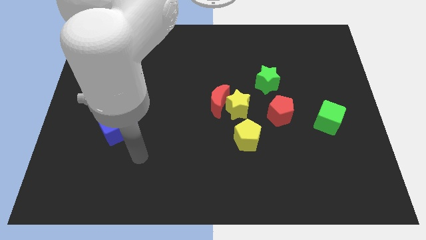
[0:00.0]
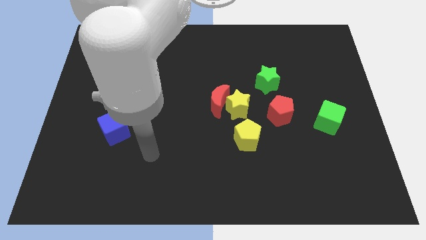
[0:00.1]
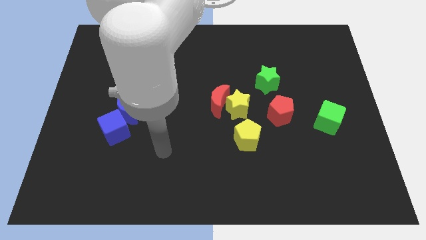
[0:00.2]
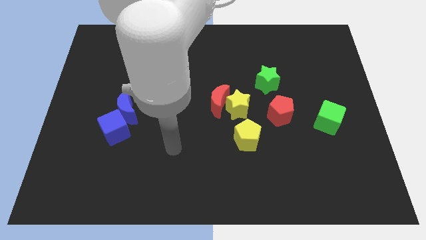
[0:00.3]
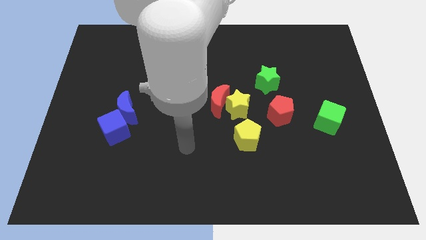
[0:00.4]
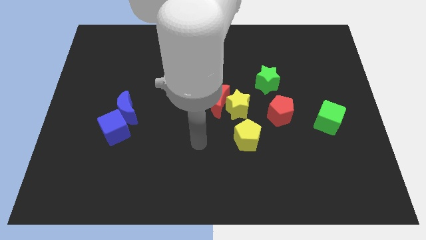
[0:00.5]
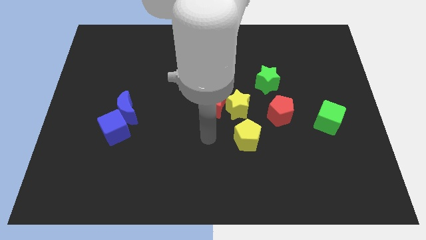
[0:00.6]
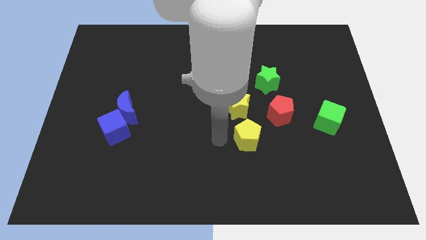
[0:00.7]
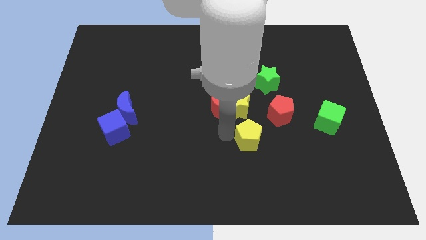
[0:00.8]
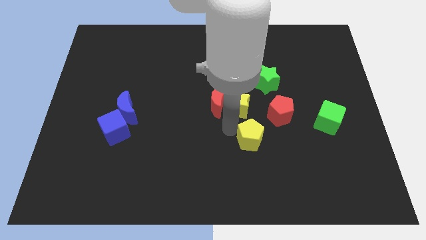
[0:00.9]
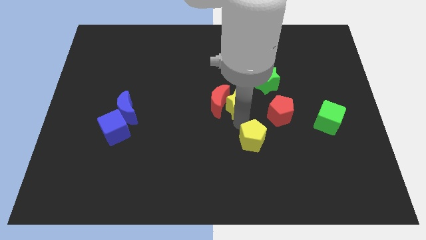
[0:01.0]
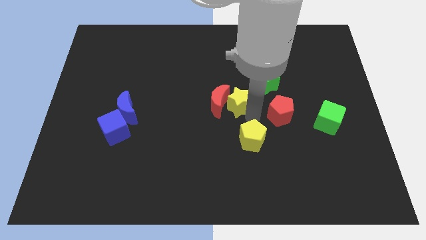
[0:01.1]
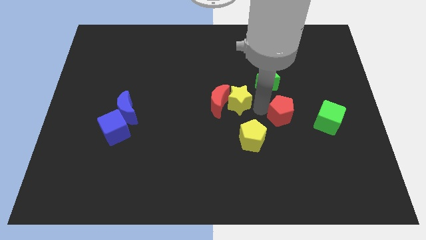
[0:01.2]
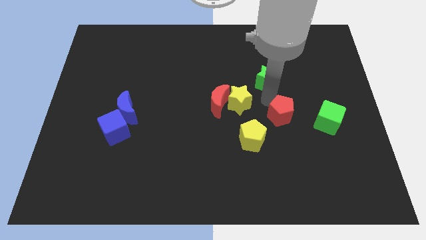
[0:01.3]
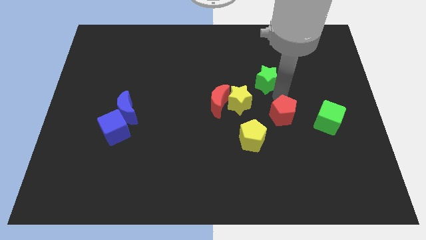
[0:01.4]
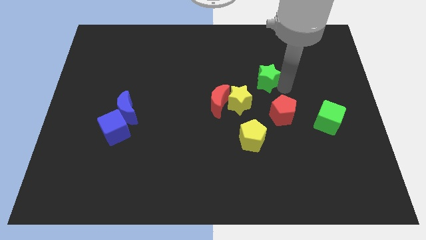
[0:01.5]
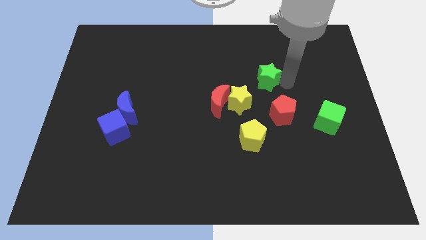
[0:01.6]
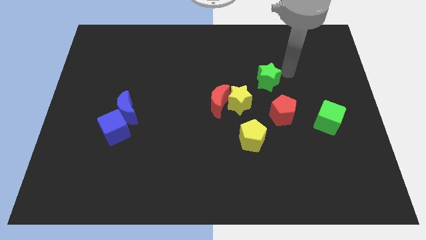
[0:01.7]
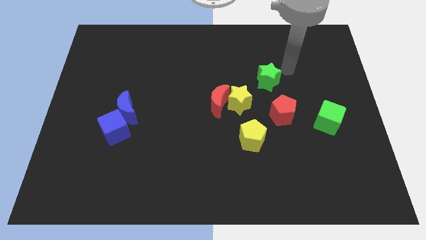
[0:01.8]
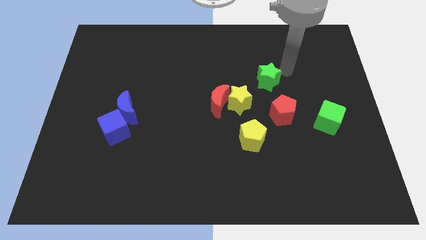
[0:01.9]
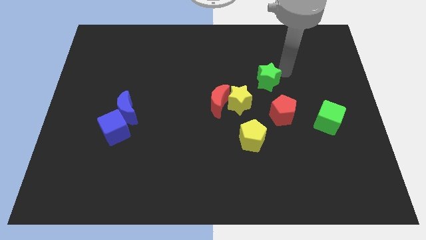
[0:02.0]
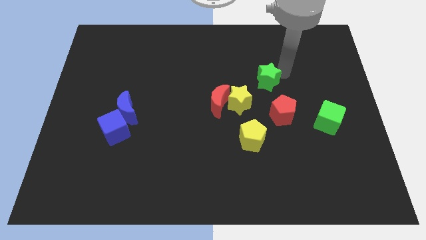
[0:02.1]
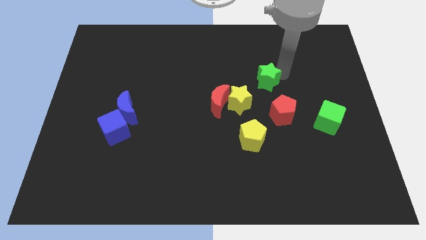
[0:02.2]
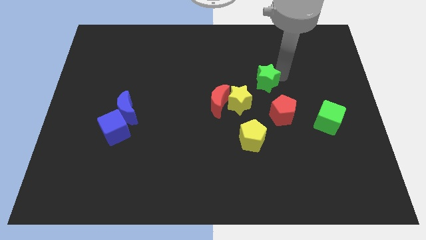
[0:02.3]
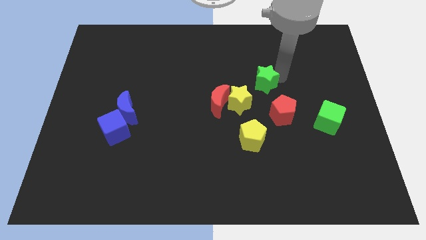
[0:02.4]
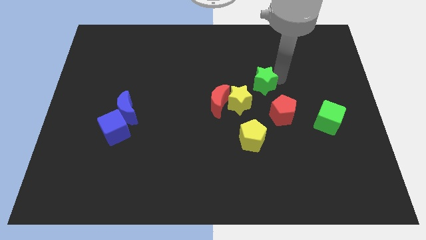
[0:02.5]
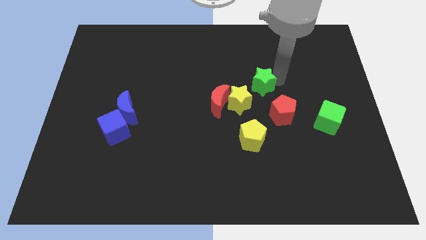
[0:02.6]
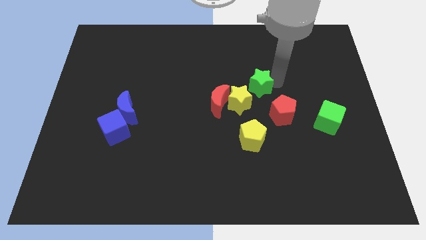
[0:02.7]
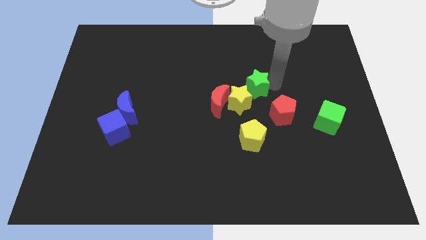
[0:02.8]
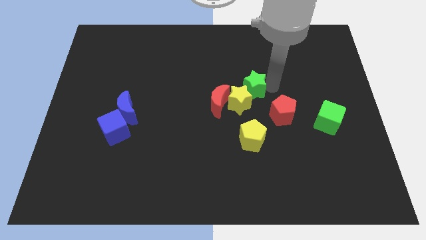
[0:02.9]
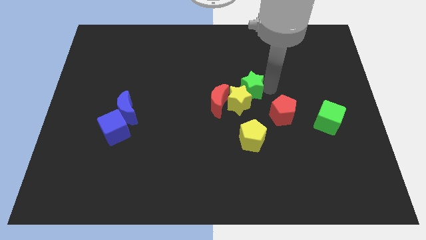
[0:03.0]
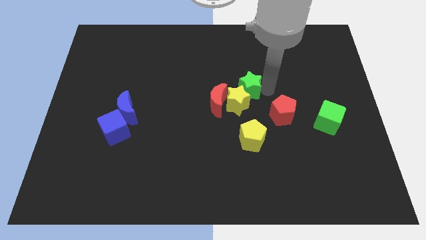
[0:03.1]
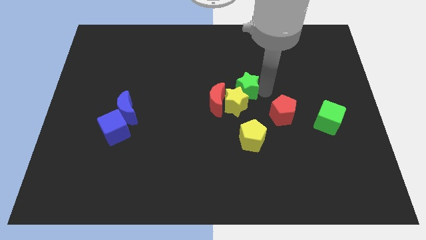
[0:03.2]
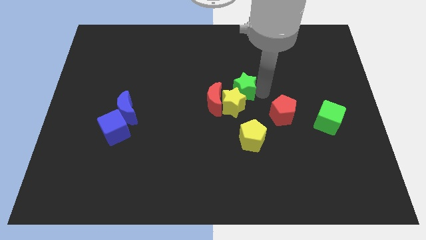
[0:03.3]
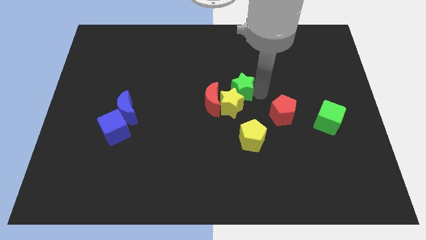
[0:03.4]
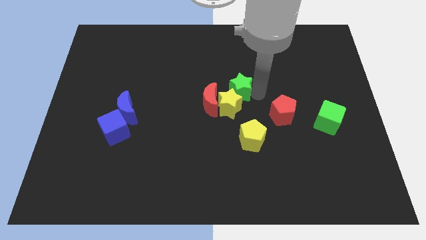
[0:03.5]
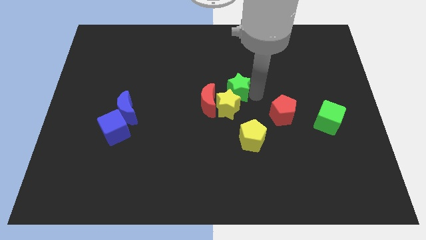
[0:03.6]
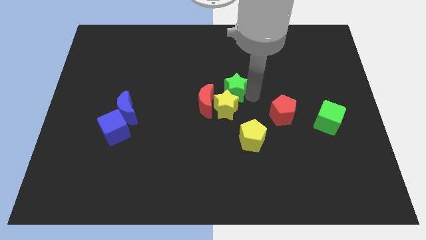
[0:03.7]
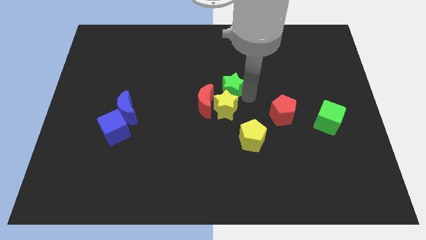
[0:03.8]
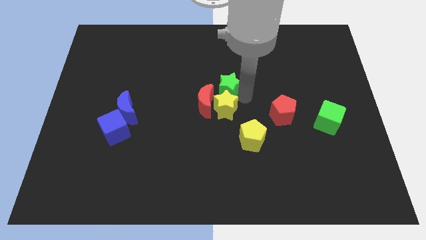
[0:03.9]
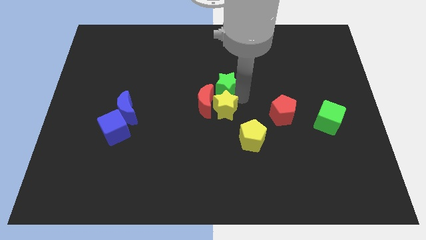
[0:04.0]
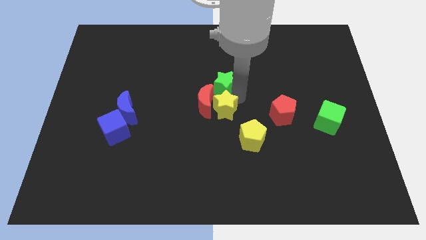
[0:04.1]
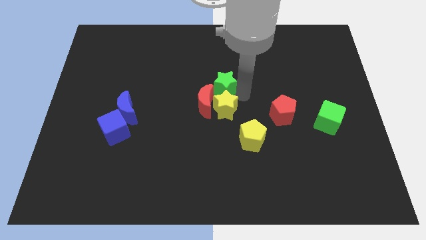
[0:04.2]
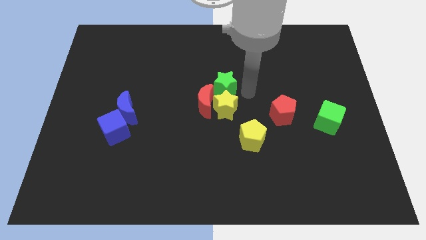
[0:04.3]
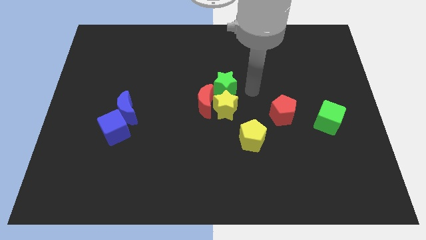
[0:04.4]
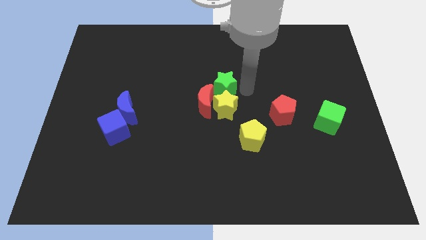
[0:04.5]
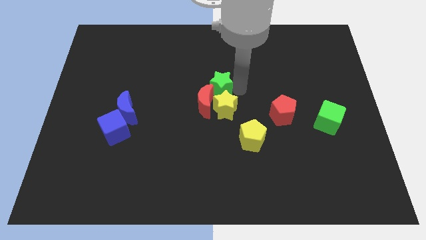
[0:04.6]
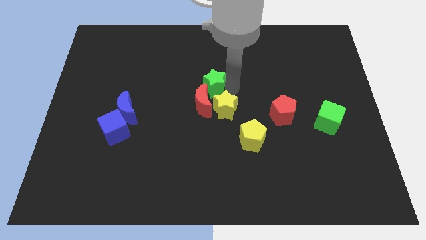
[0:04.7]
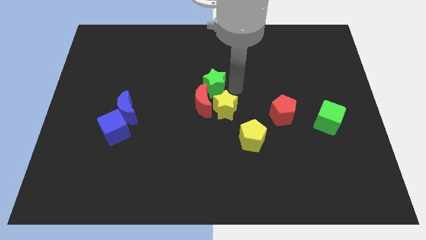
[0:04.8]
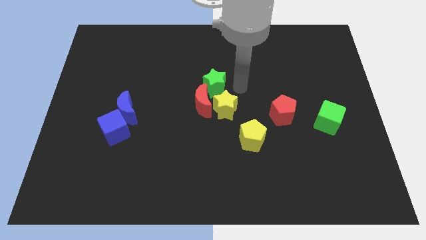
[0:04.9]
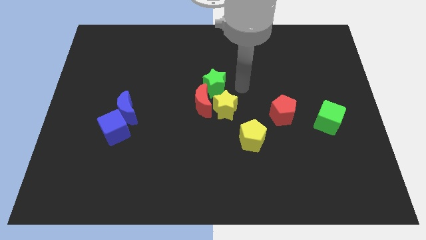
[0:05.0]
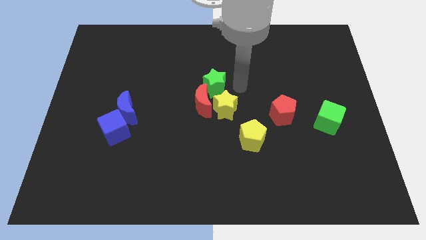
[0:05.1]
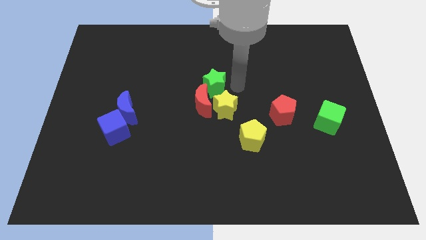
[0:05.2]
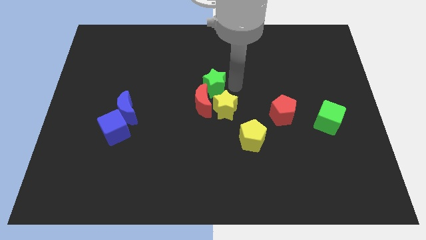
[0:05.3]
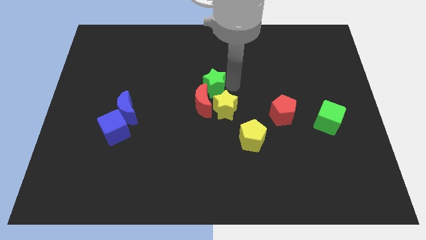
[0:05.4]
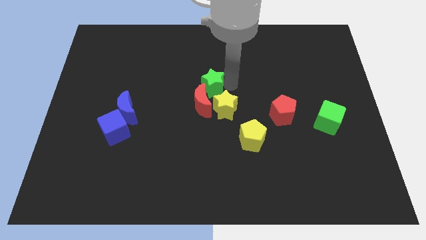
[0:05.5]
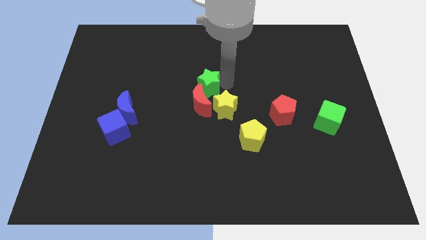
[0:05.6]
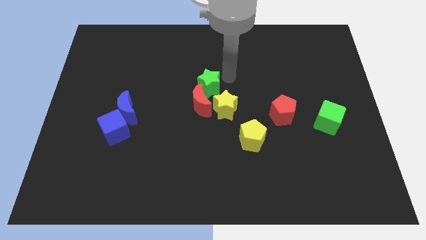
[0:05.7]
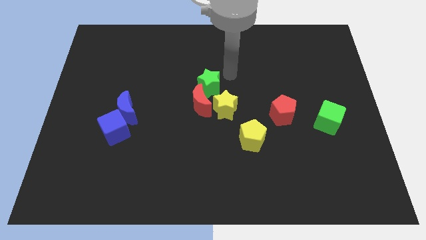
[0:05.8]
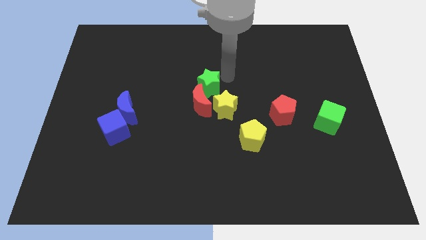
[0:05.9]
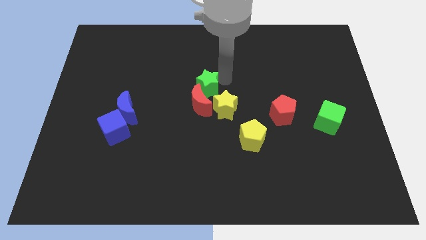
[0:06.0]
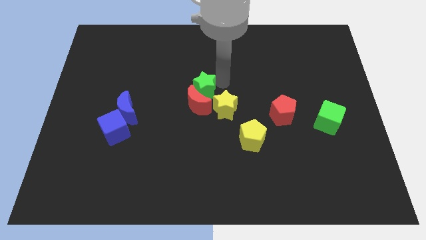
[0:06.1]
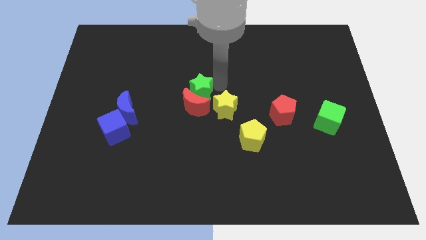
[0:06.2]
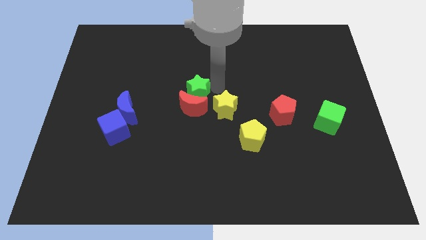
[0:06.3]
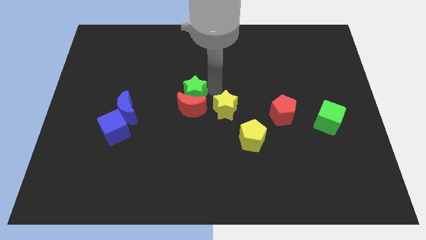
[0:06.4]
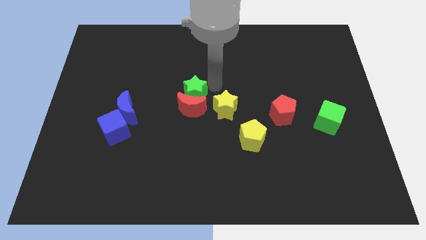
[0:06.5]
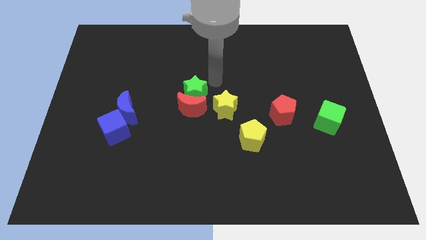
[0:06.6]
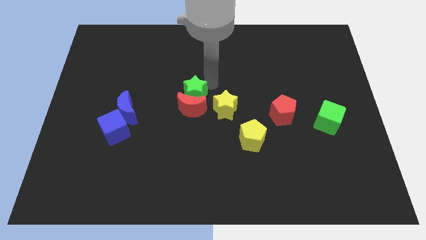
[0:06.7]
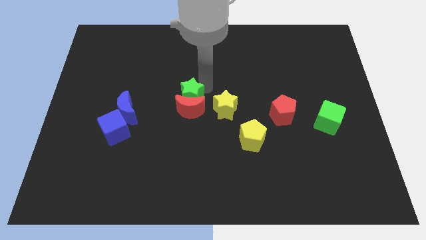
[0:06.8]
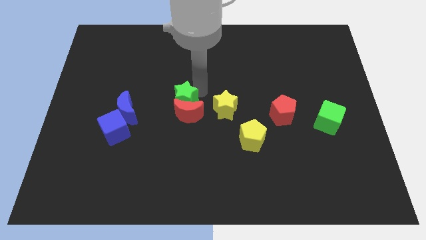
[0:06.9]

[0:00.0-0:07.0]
slide the green star just right of the blue moon

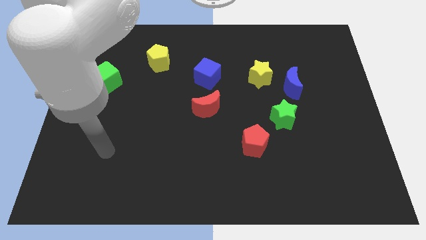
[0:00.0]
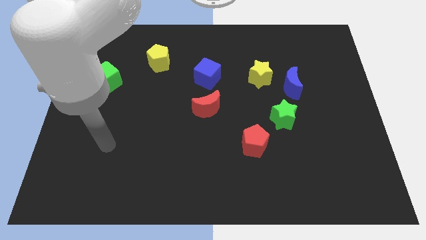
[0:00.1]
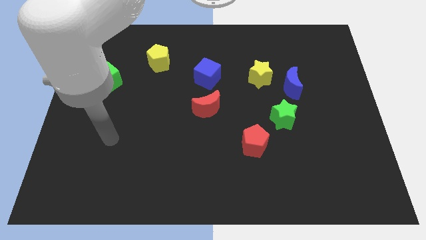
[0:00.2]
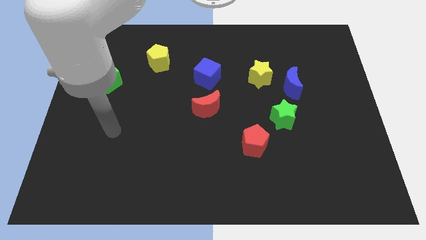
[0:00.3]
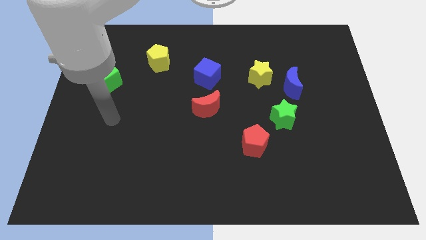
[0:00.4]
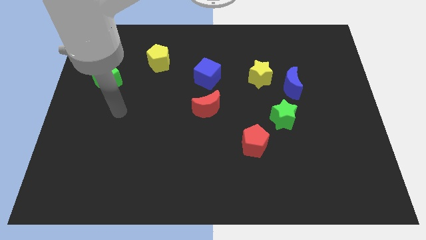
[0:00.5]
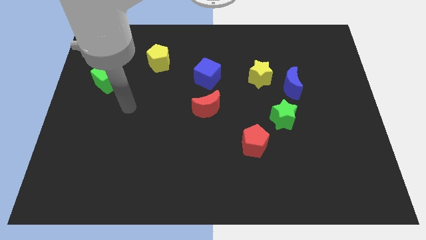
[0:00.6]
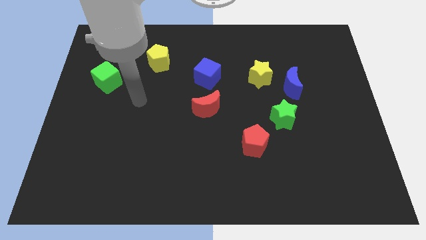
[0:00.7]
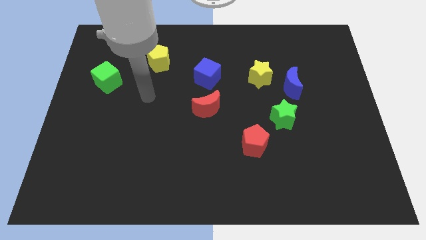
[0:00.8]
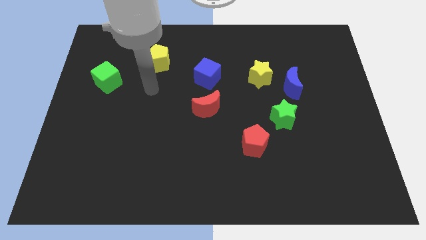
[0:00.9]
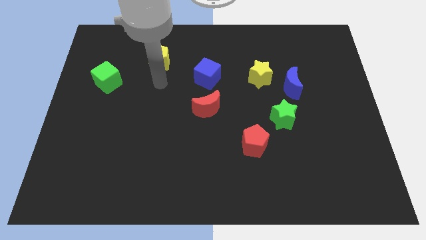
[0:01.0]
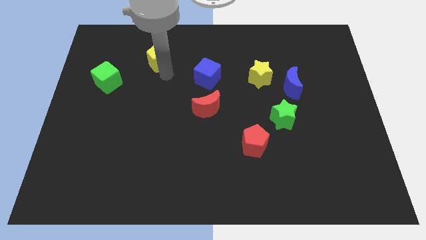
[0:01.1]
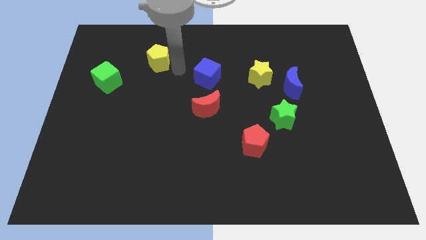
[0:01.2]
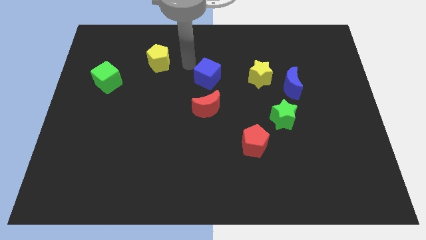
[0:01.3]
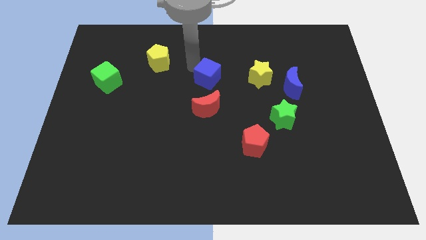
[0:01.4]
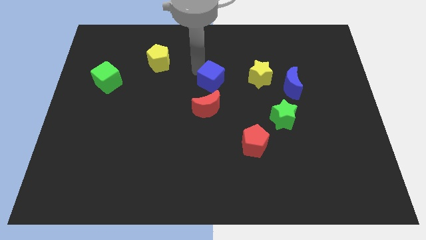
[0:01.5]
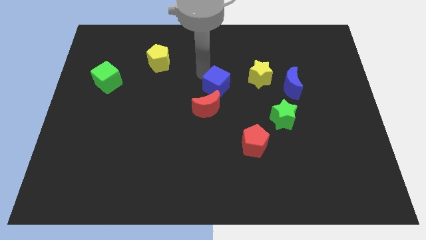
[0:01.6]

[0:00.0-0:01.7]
slide the blue cube diagonally up and to the right of the red moon
